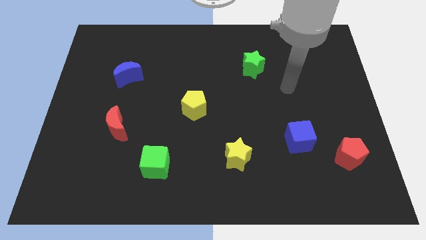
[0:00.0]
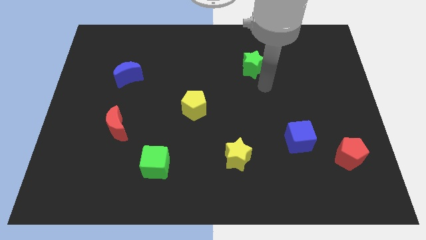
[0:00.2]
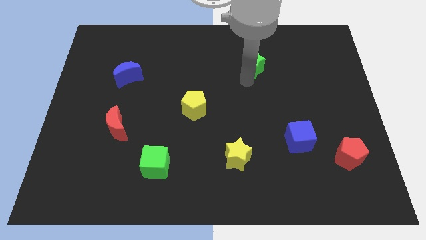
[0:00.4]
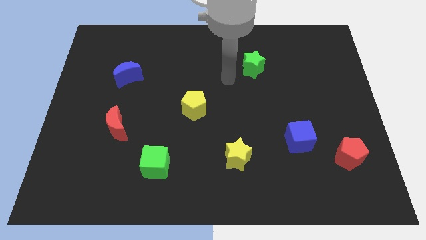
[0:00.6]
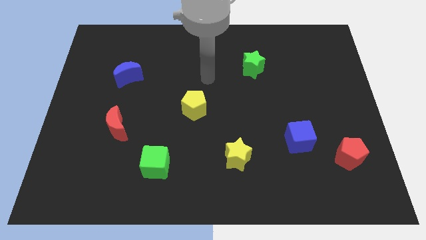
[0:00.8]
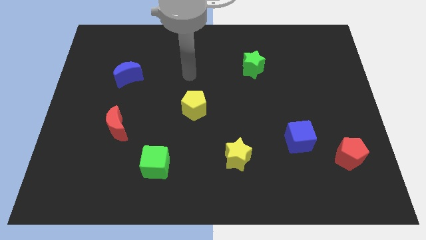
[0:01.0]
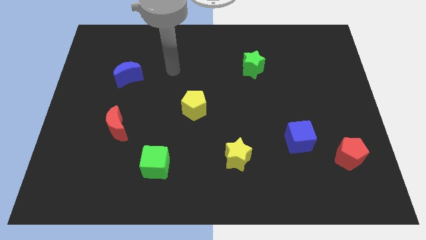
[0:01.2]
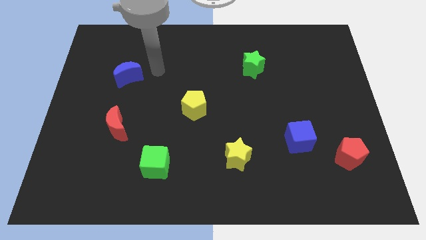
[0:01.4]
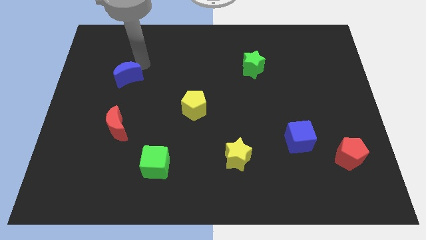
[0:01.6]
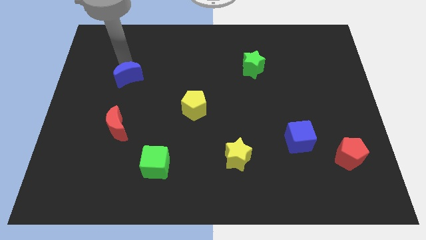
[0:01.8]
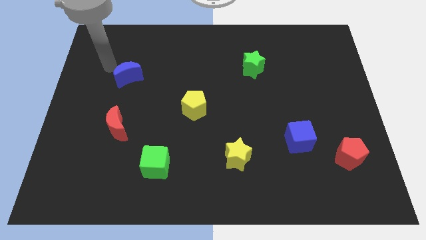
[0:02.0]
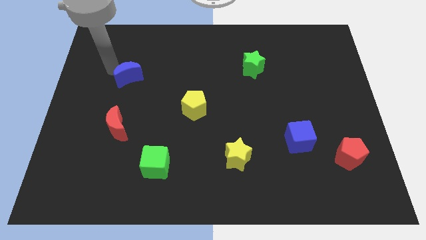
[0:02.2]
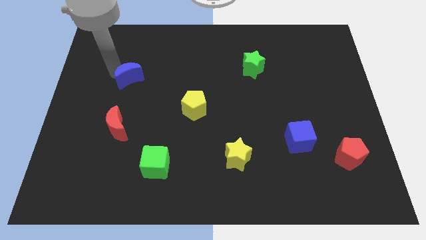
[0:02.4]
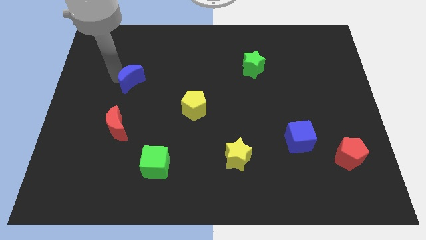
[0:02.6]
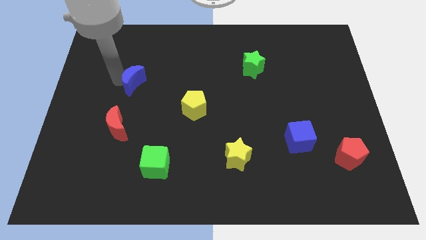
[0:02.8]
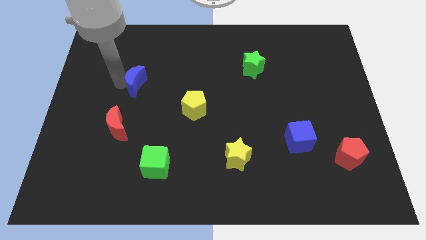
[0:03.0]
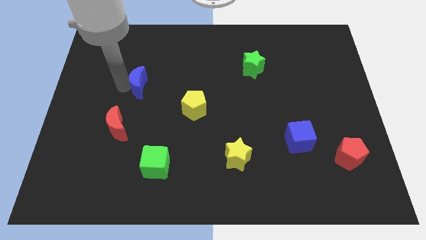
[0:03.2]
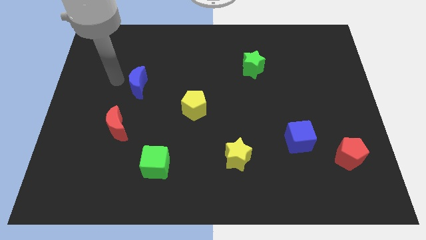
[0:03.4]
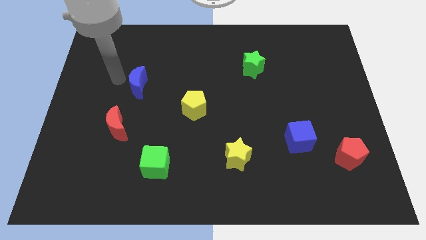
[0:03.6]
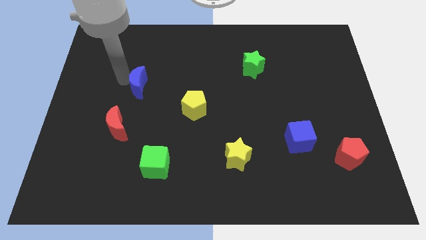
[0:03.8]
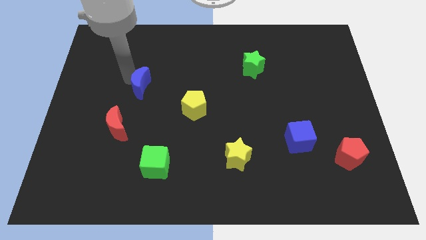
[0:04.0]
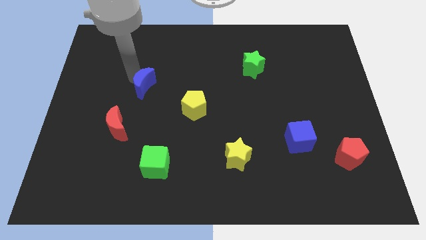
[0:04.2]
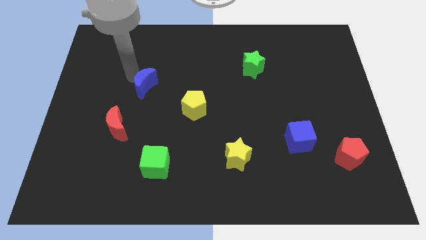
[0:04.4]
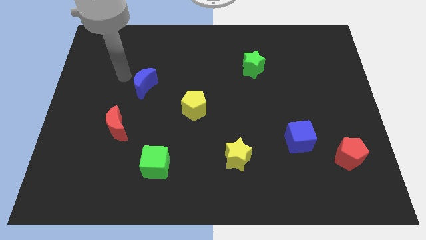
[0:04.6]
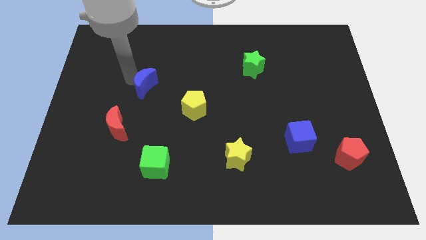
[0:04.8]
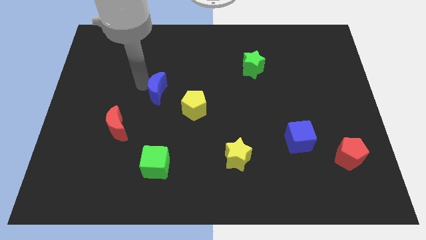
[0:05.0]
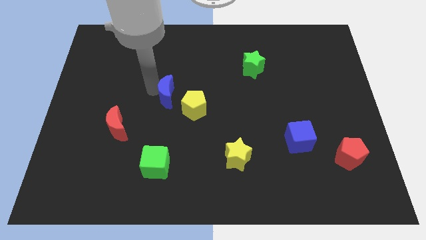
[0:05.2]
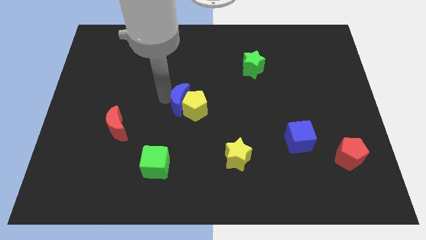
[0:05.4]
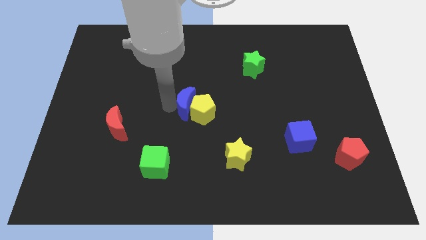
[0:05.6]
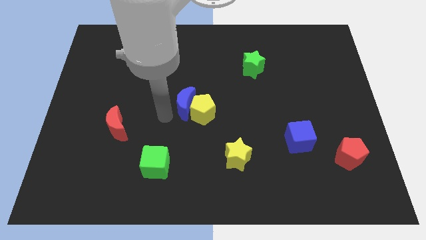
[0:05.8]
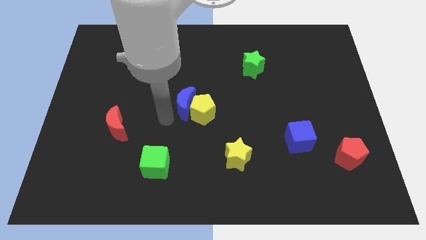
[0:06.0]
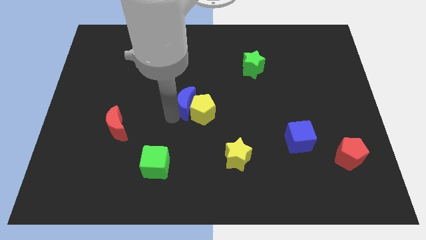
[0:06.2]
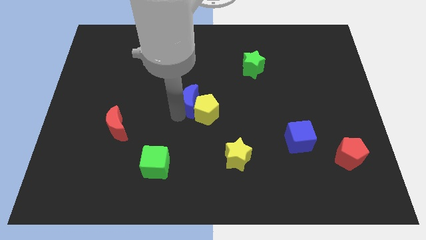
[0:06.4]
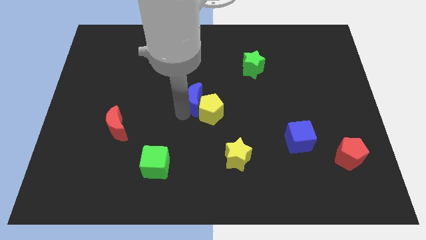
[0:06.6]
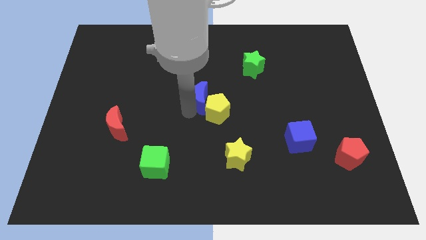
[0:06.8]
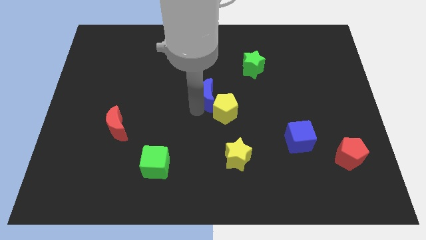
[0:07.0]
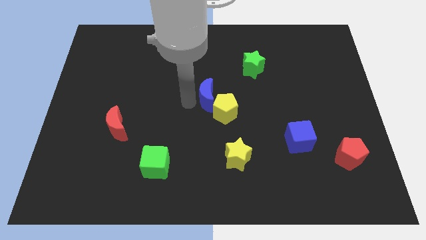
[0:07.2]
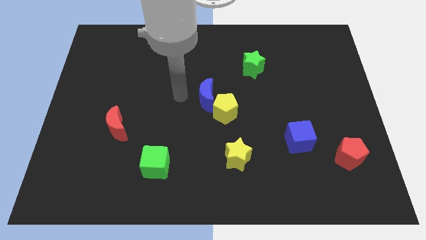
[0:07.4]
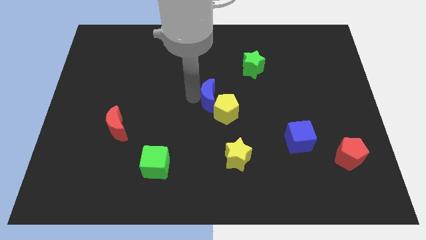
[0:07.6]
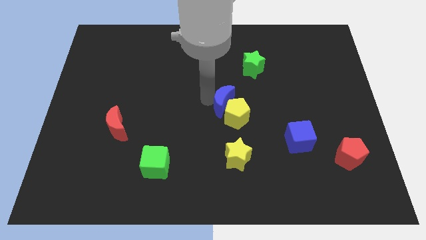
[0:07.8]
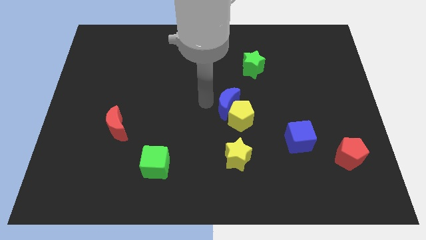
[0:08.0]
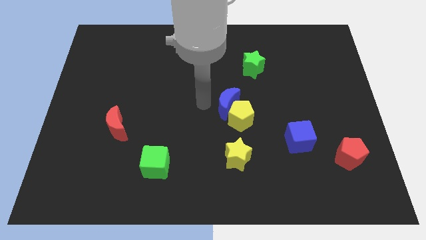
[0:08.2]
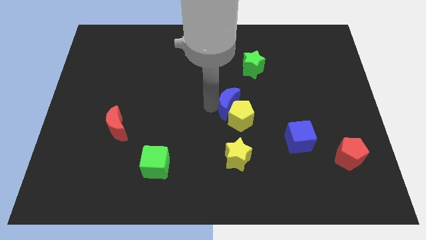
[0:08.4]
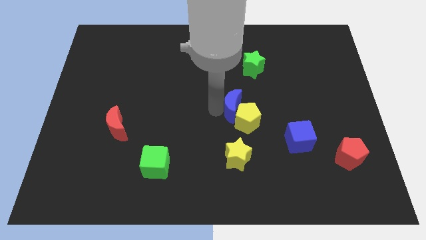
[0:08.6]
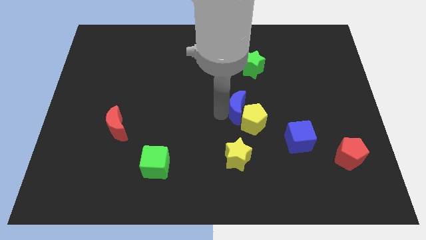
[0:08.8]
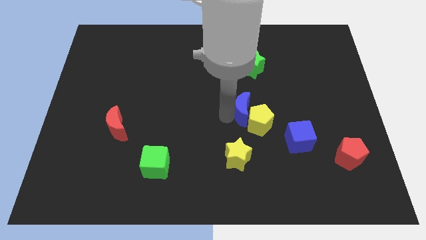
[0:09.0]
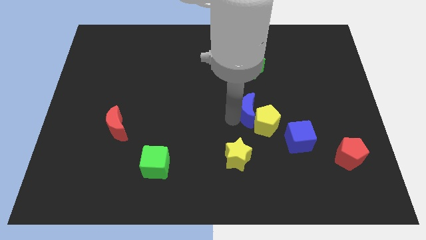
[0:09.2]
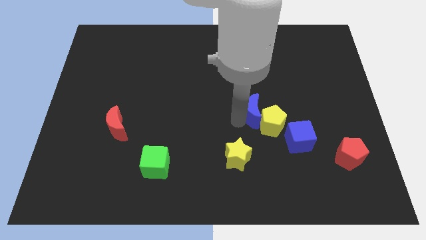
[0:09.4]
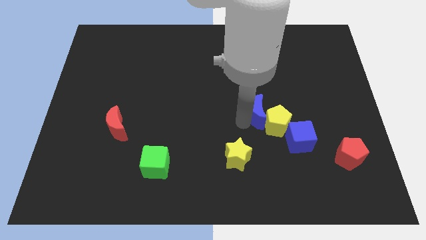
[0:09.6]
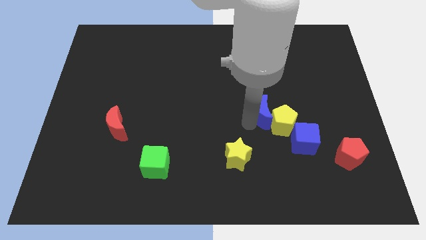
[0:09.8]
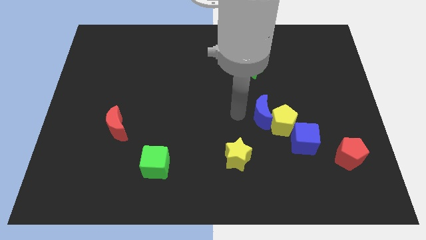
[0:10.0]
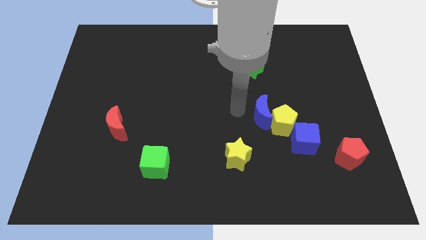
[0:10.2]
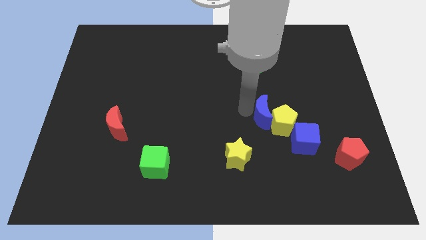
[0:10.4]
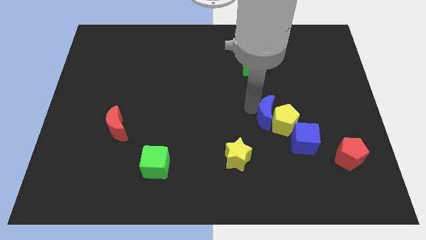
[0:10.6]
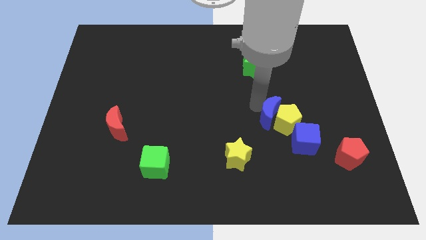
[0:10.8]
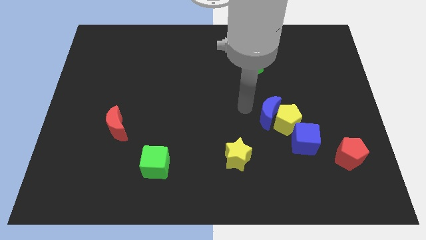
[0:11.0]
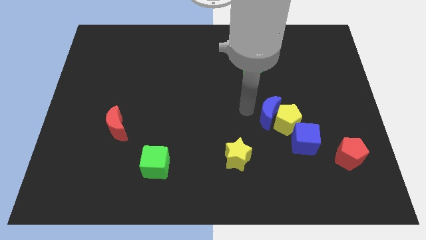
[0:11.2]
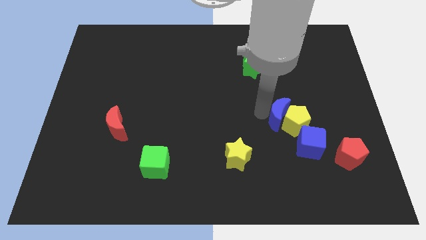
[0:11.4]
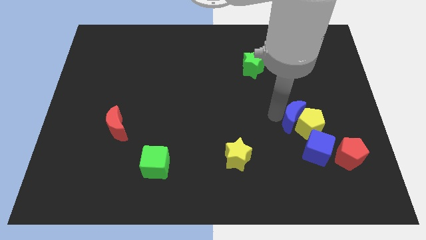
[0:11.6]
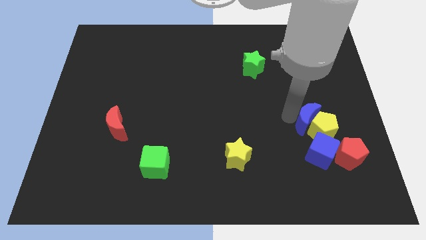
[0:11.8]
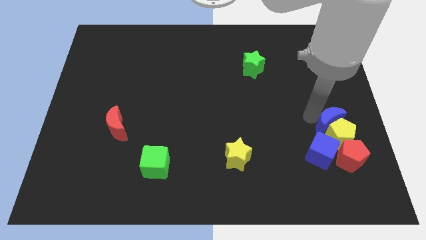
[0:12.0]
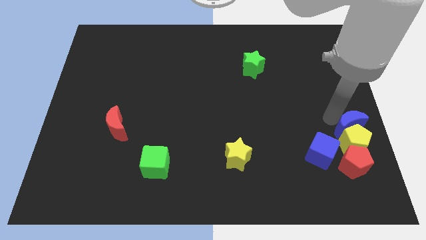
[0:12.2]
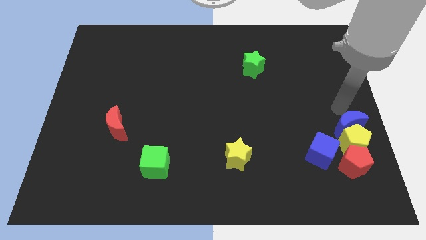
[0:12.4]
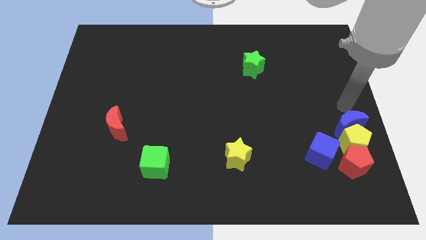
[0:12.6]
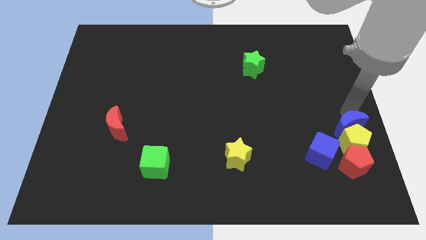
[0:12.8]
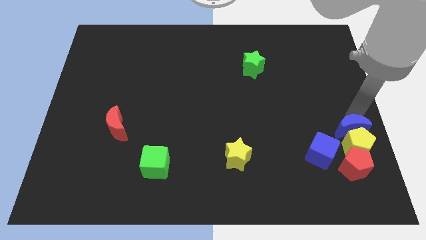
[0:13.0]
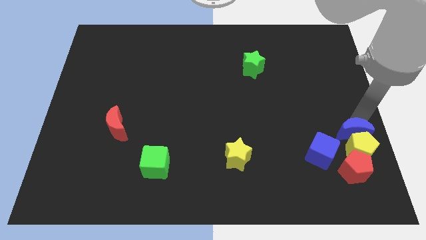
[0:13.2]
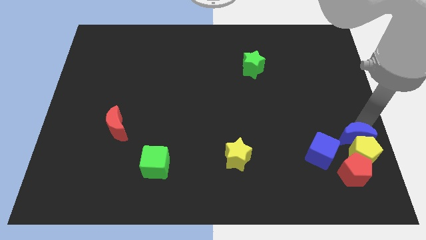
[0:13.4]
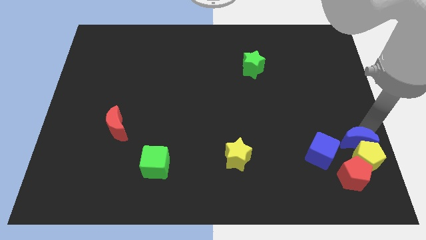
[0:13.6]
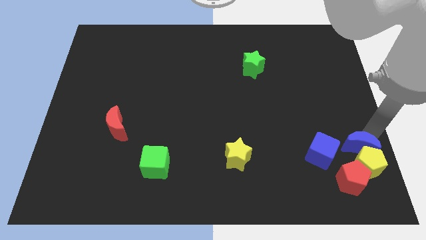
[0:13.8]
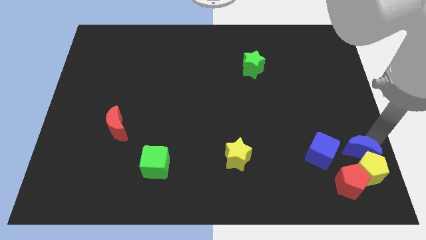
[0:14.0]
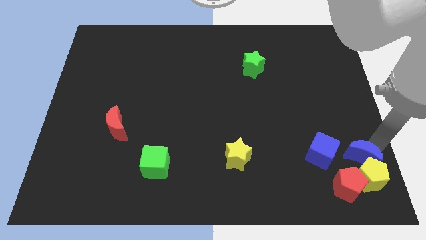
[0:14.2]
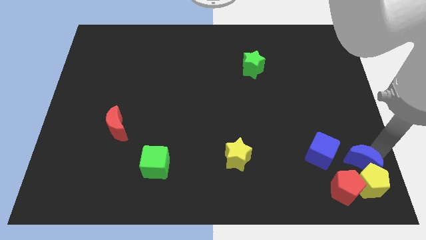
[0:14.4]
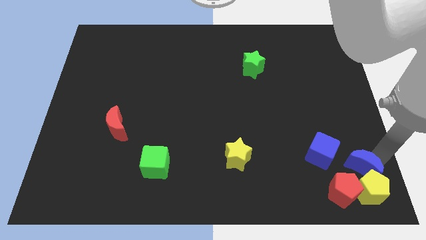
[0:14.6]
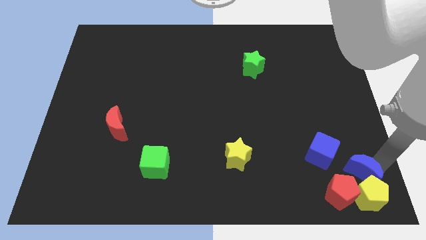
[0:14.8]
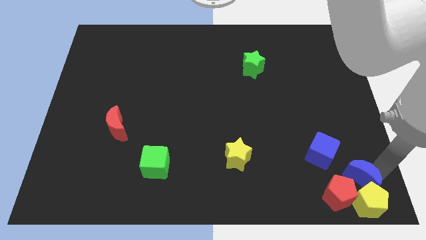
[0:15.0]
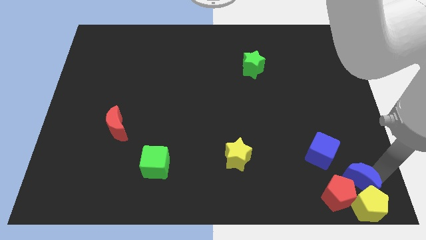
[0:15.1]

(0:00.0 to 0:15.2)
push the blue moon towards the red pentagon

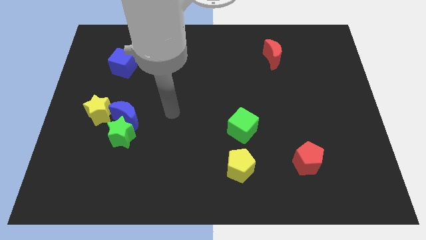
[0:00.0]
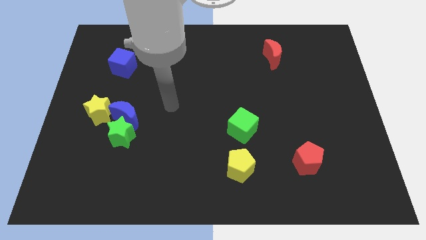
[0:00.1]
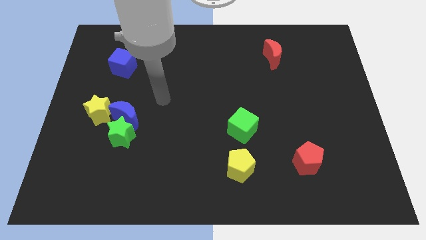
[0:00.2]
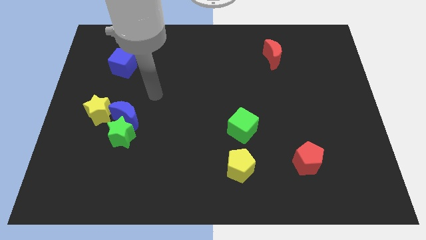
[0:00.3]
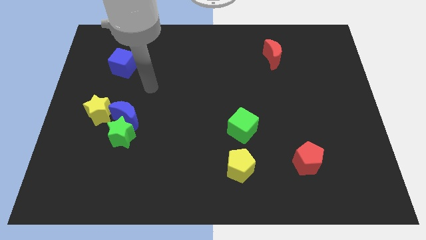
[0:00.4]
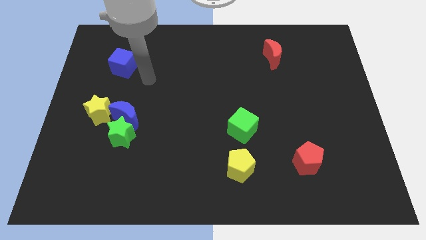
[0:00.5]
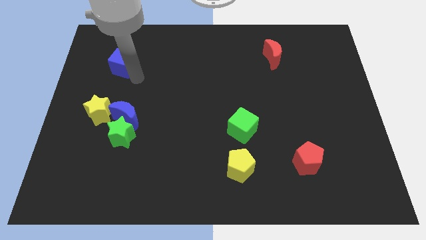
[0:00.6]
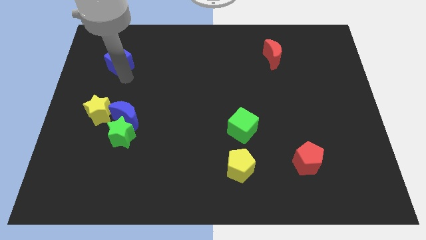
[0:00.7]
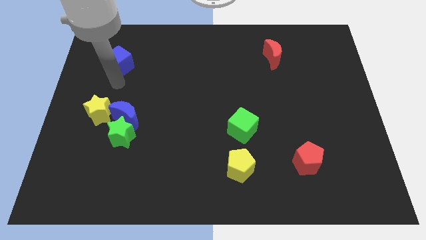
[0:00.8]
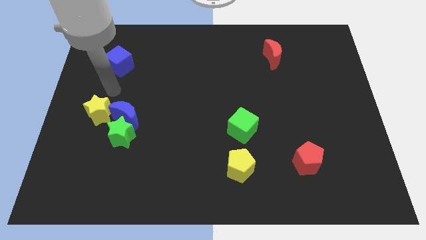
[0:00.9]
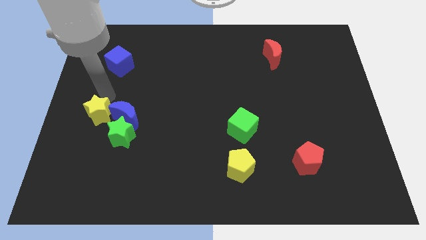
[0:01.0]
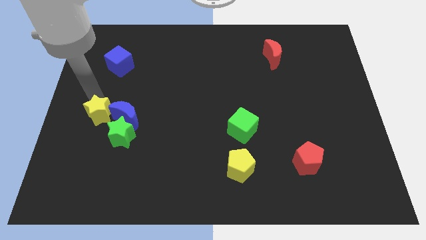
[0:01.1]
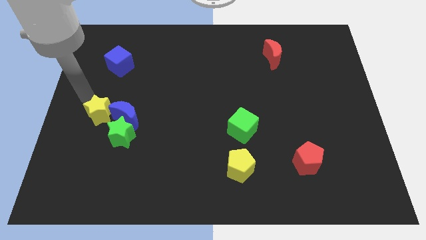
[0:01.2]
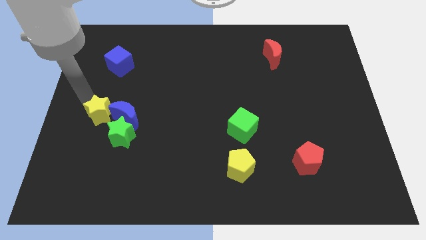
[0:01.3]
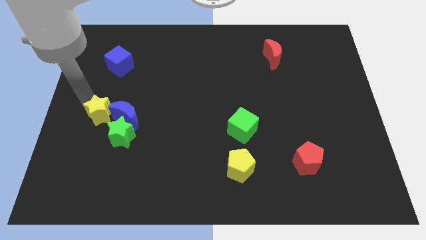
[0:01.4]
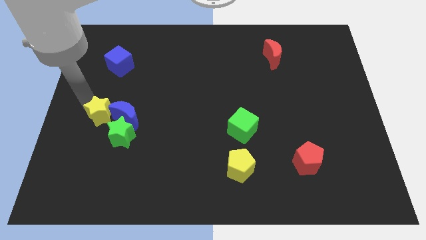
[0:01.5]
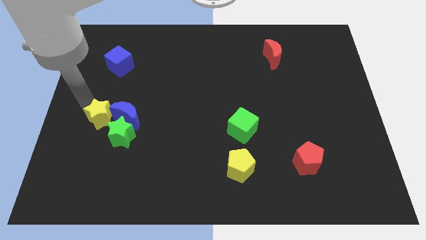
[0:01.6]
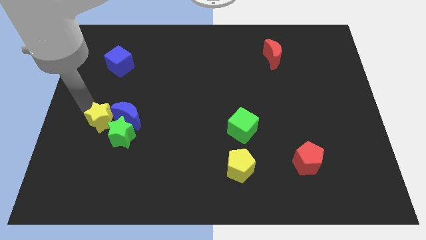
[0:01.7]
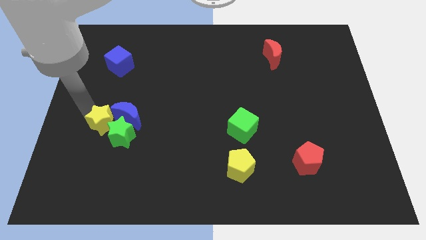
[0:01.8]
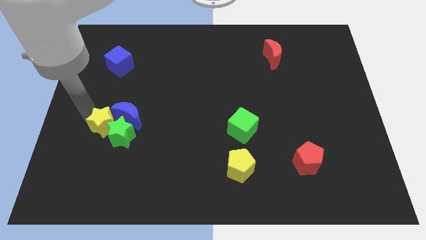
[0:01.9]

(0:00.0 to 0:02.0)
move the yellow star next to the green star
